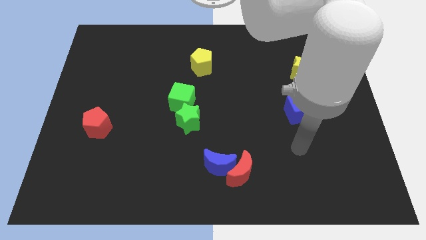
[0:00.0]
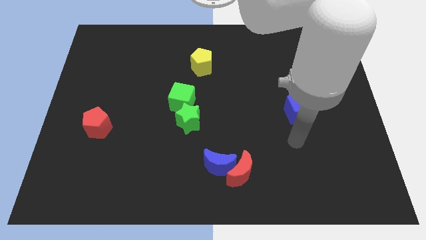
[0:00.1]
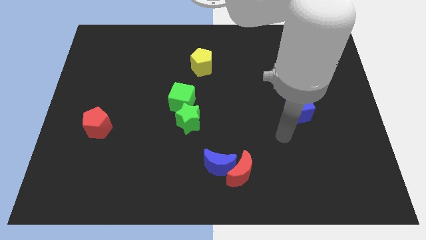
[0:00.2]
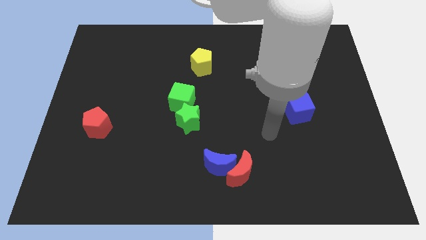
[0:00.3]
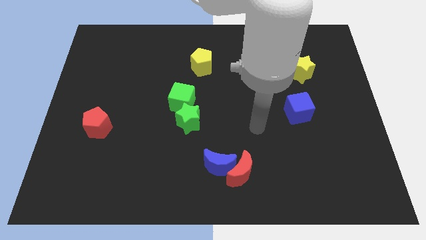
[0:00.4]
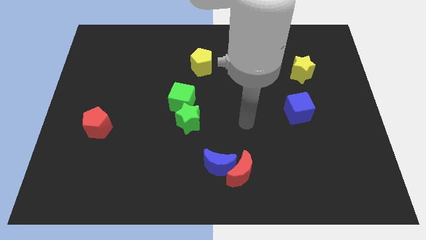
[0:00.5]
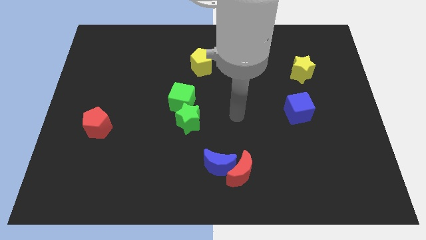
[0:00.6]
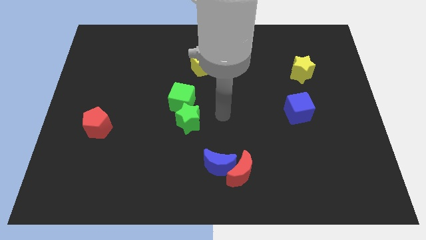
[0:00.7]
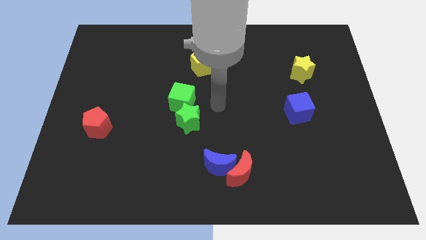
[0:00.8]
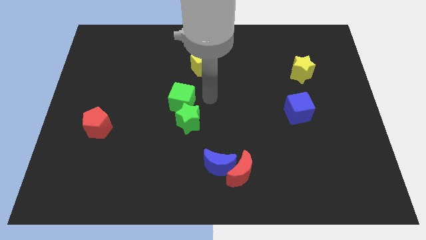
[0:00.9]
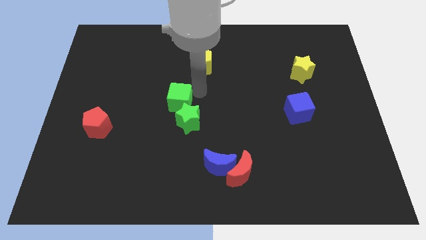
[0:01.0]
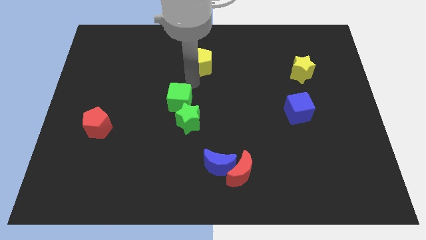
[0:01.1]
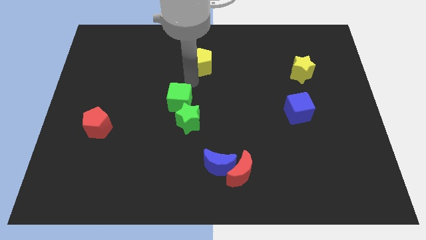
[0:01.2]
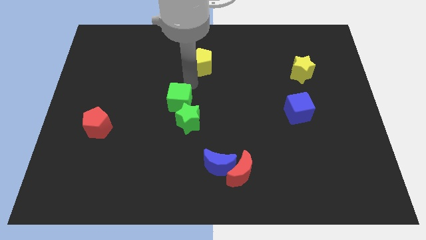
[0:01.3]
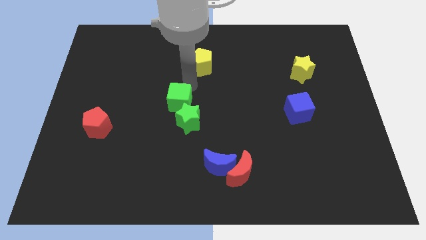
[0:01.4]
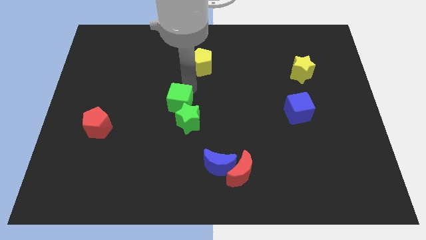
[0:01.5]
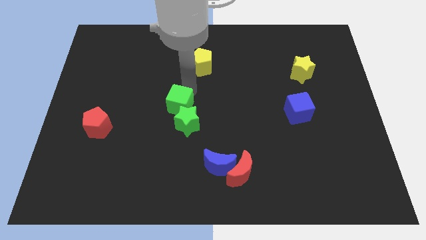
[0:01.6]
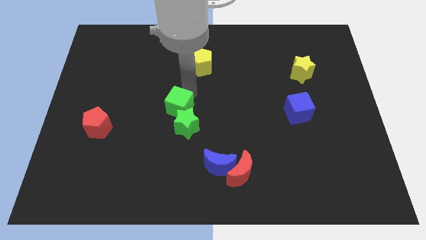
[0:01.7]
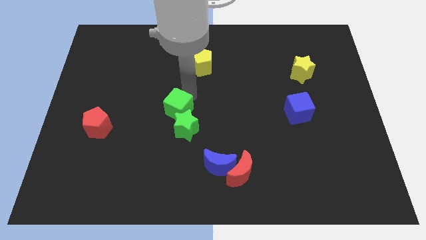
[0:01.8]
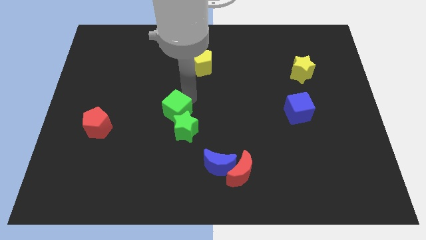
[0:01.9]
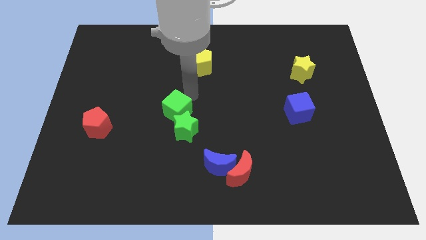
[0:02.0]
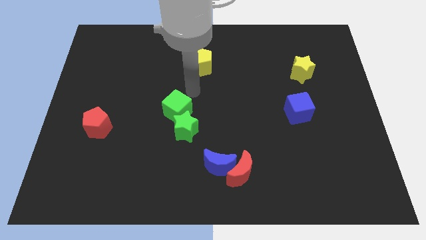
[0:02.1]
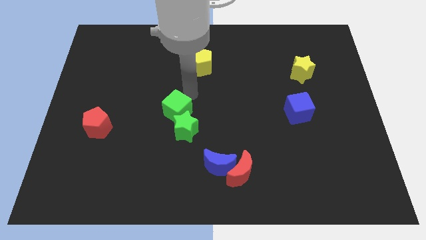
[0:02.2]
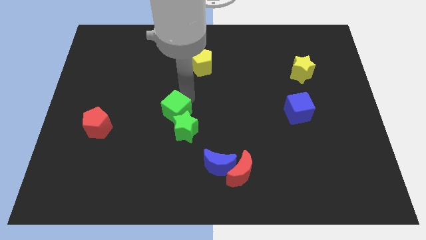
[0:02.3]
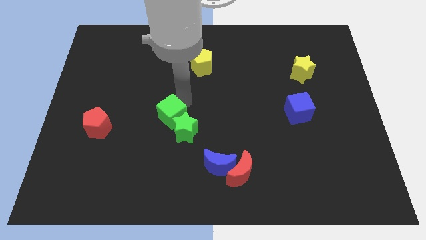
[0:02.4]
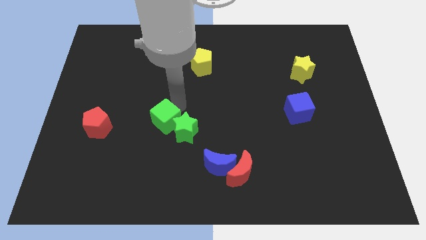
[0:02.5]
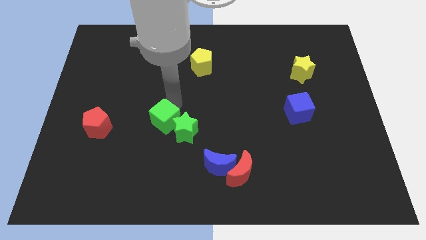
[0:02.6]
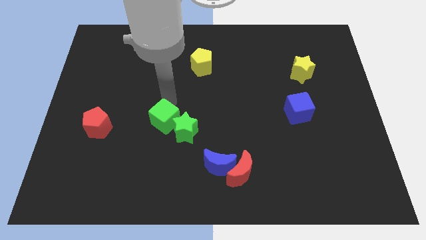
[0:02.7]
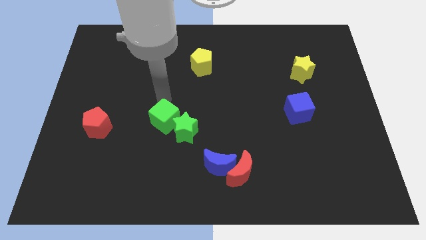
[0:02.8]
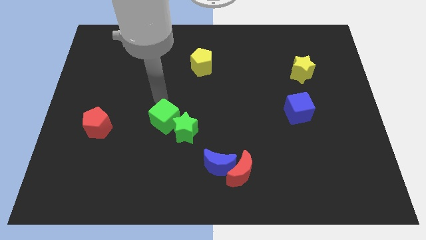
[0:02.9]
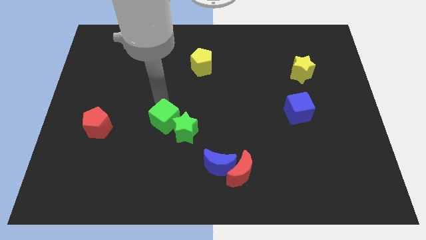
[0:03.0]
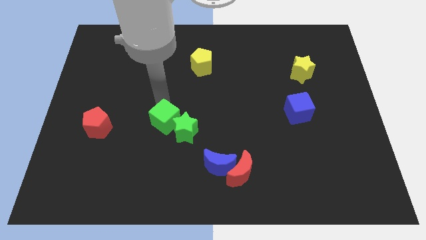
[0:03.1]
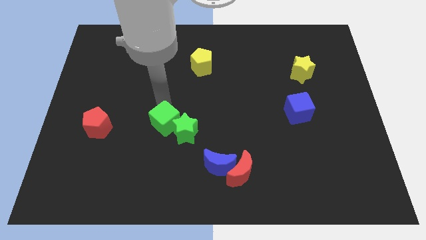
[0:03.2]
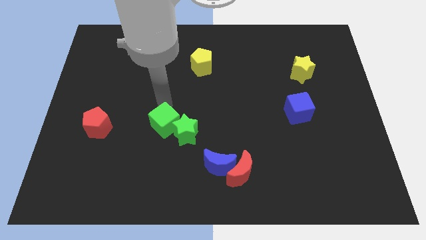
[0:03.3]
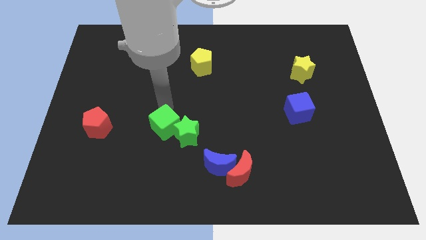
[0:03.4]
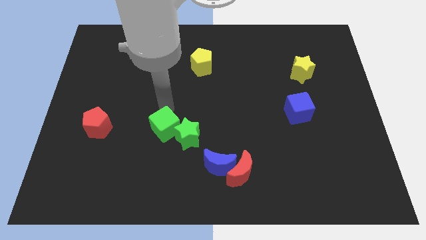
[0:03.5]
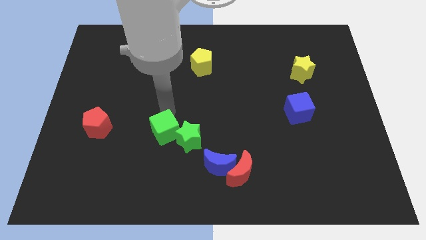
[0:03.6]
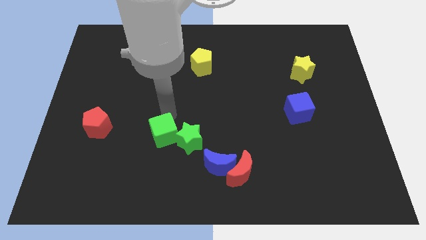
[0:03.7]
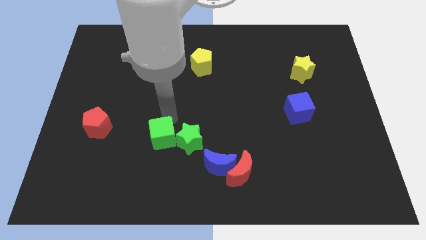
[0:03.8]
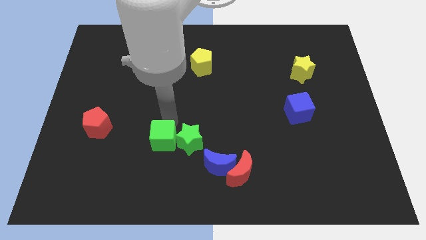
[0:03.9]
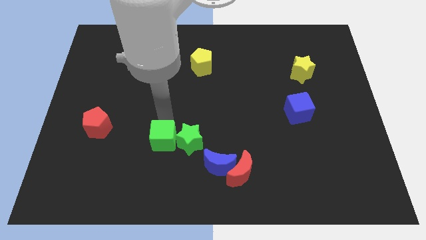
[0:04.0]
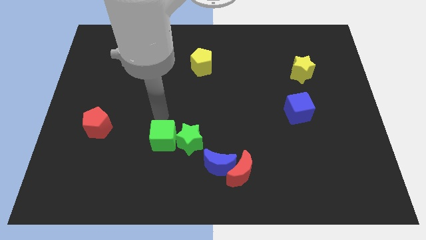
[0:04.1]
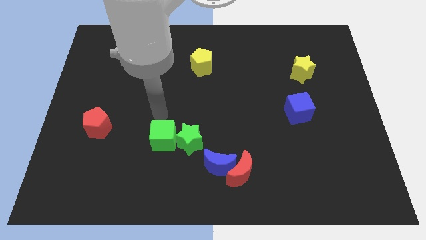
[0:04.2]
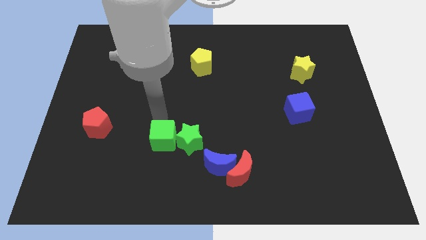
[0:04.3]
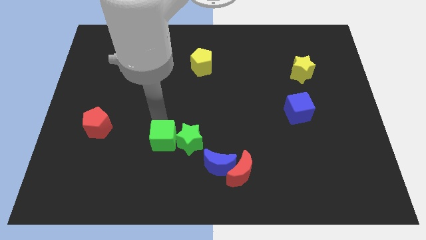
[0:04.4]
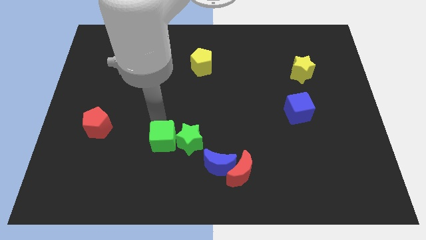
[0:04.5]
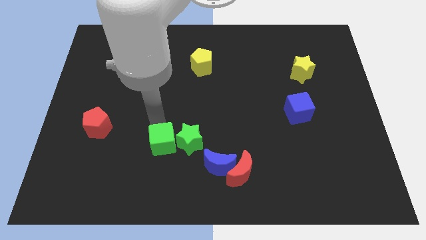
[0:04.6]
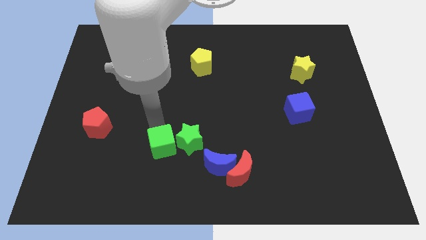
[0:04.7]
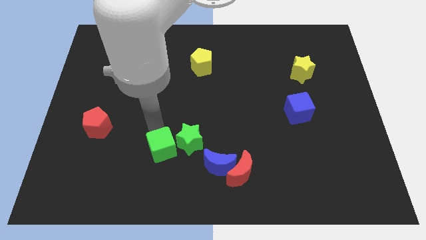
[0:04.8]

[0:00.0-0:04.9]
push the green cube to the left of the blue moon

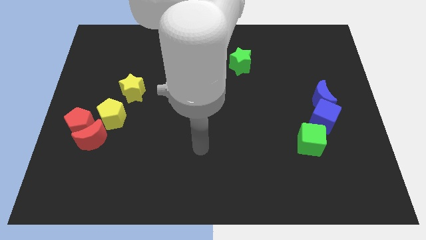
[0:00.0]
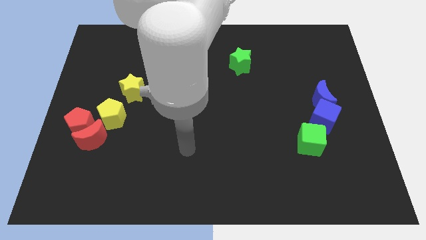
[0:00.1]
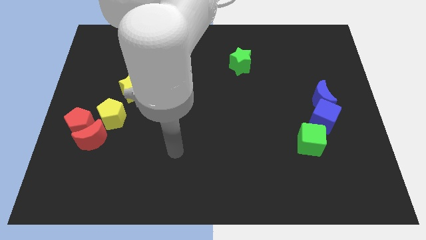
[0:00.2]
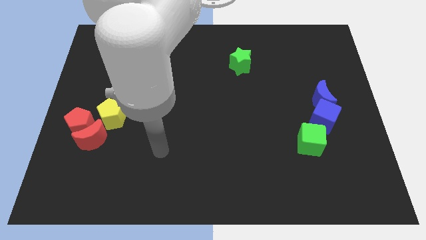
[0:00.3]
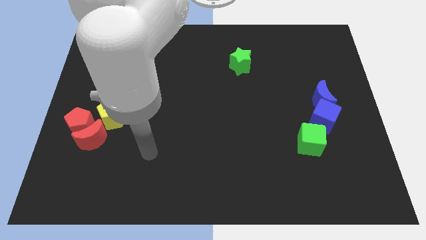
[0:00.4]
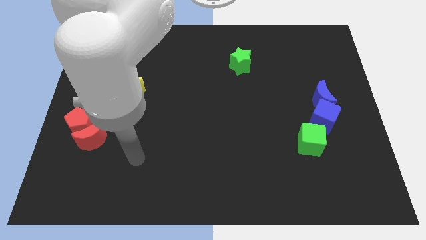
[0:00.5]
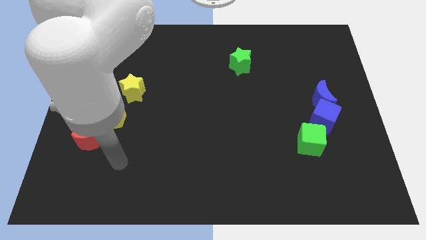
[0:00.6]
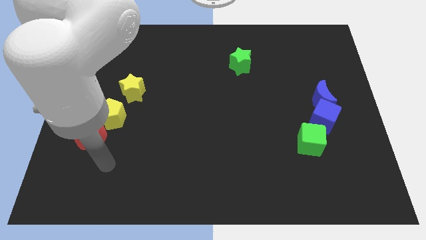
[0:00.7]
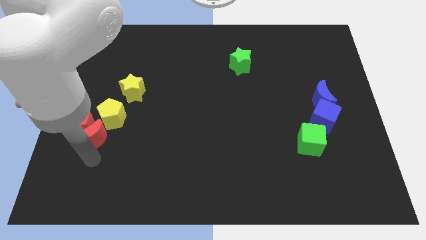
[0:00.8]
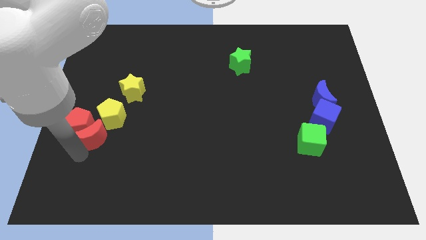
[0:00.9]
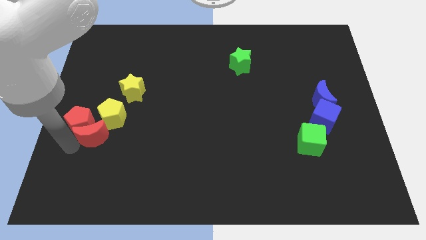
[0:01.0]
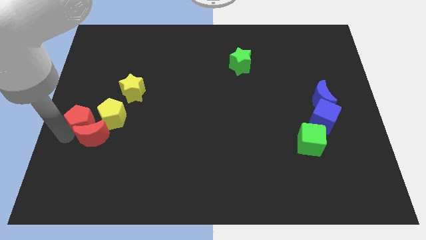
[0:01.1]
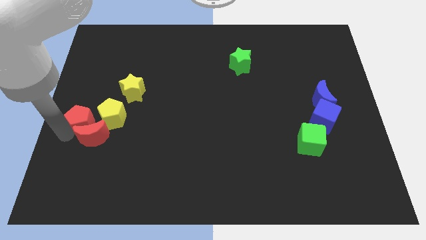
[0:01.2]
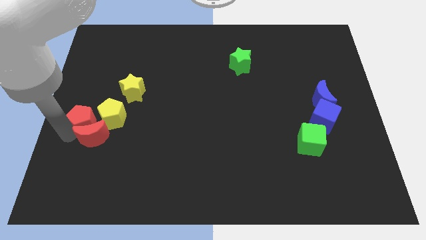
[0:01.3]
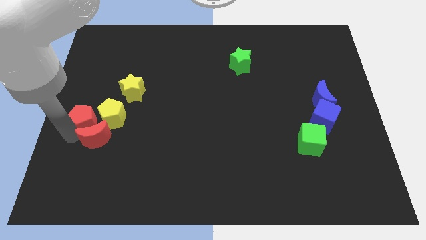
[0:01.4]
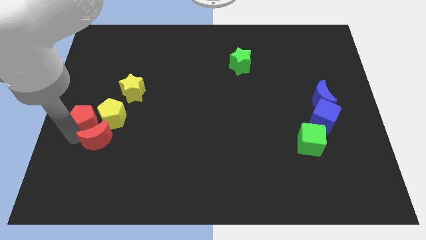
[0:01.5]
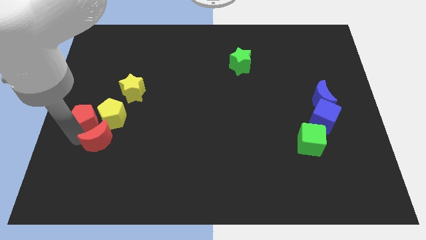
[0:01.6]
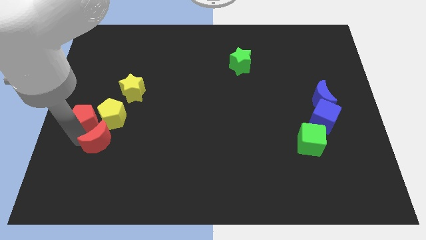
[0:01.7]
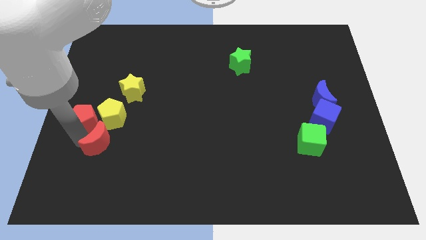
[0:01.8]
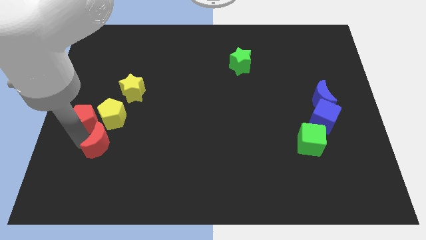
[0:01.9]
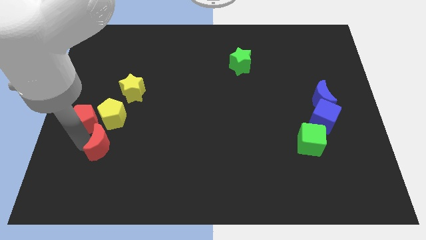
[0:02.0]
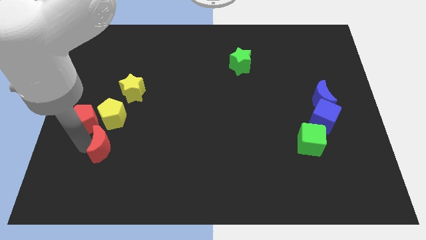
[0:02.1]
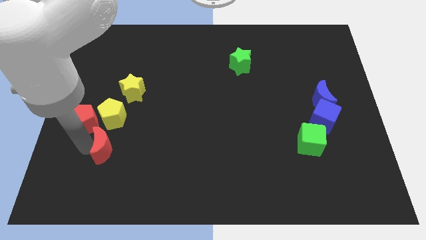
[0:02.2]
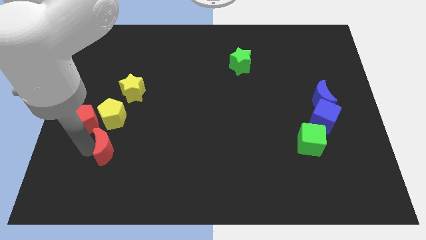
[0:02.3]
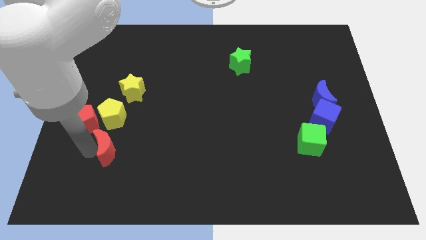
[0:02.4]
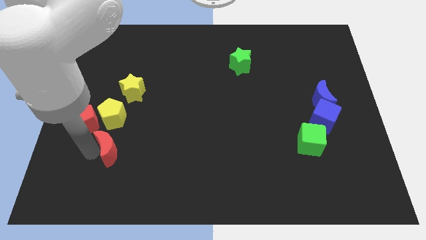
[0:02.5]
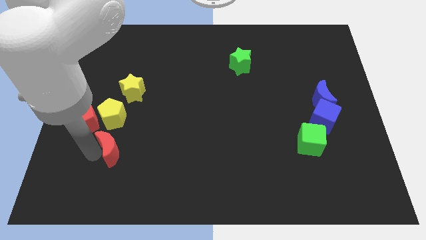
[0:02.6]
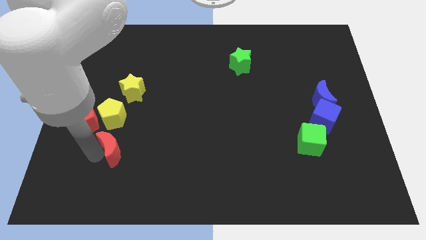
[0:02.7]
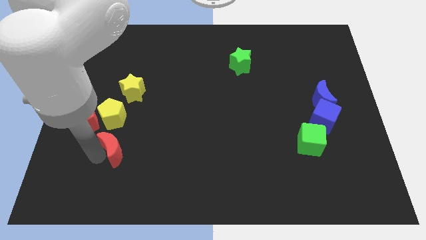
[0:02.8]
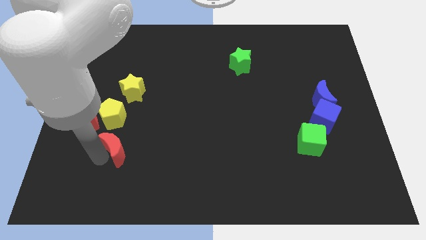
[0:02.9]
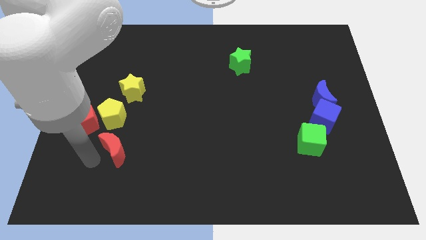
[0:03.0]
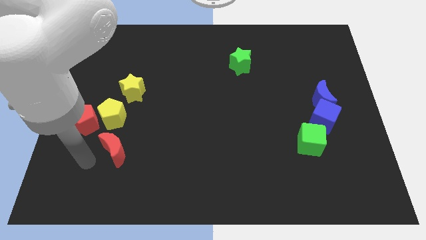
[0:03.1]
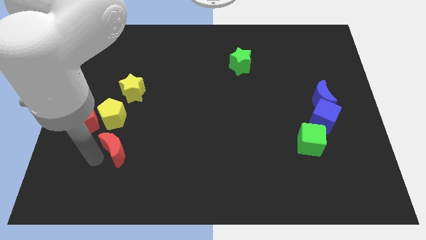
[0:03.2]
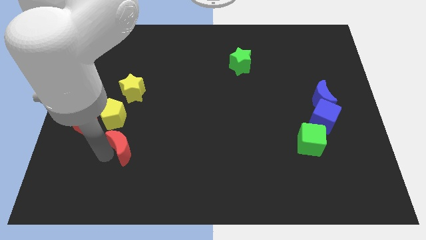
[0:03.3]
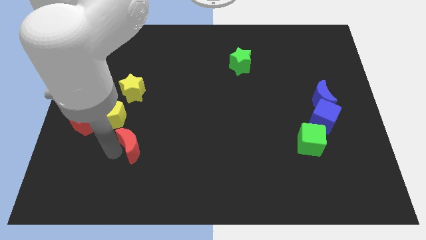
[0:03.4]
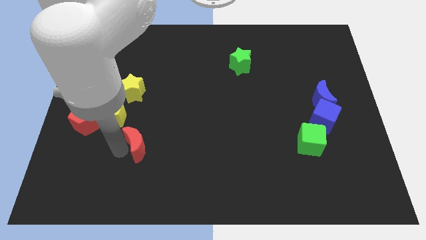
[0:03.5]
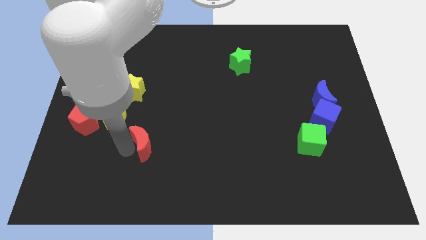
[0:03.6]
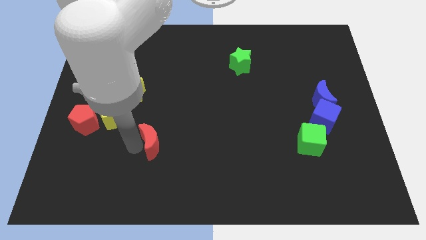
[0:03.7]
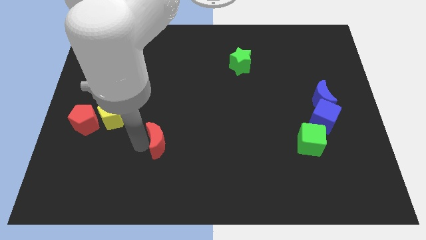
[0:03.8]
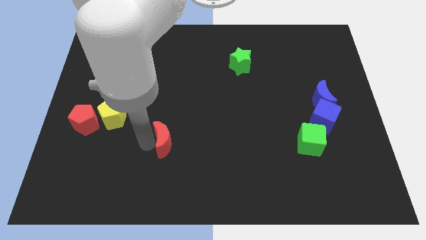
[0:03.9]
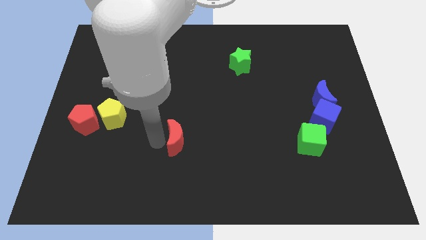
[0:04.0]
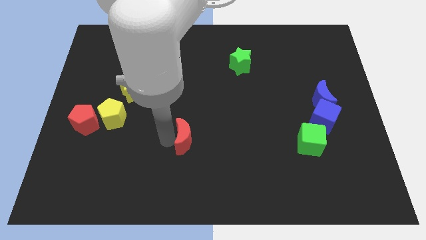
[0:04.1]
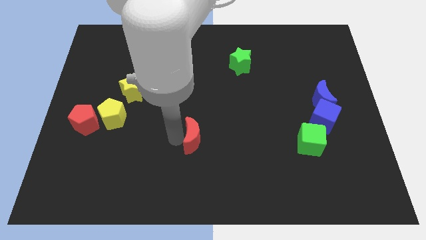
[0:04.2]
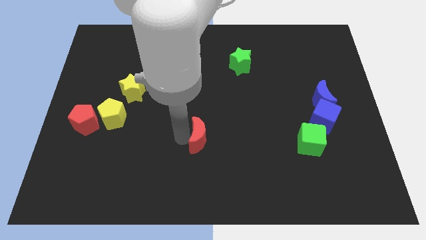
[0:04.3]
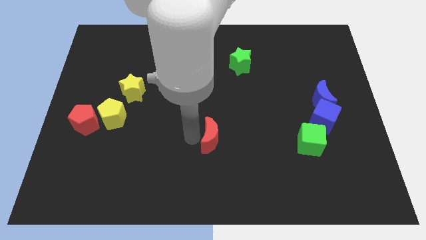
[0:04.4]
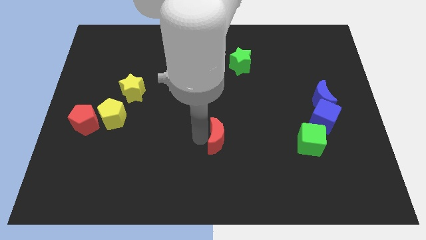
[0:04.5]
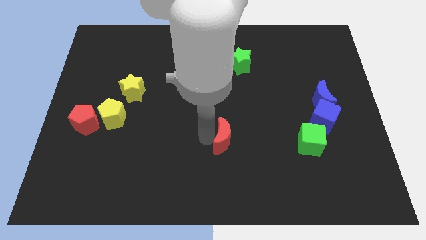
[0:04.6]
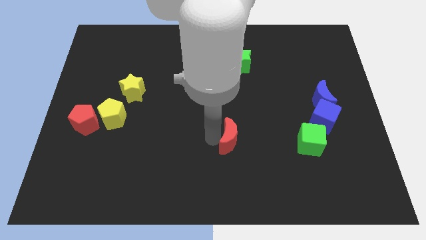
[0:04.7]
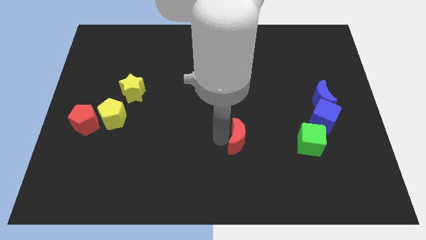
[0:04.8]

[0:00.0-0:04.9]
push the red moon to the left of the green cube
